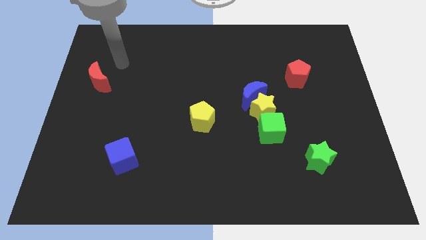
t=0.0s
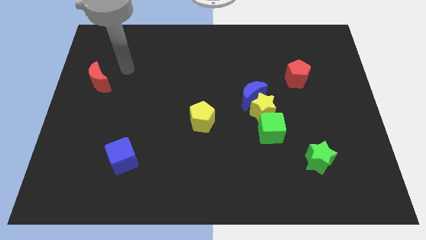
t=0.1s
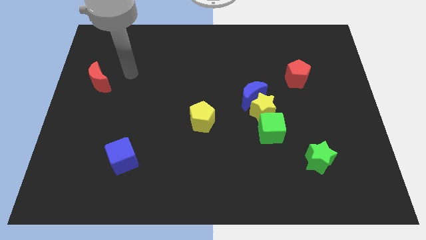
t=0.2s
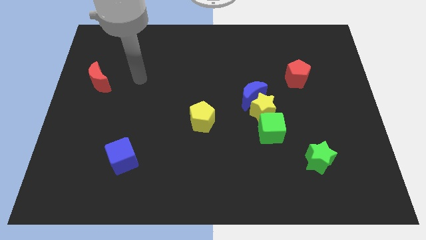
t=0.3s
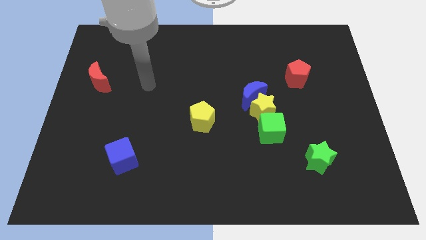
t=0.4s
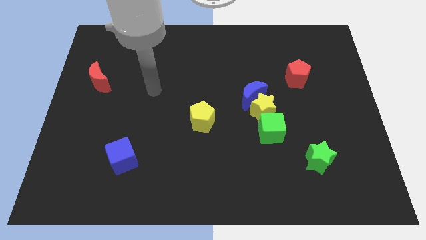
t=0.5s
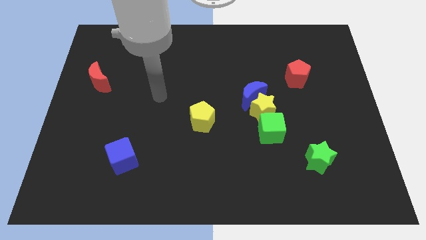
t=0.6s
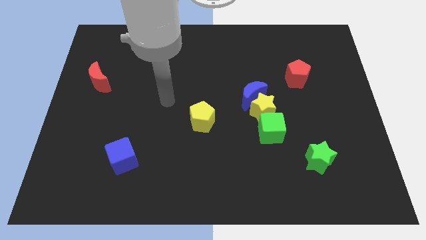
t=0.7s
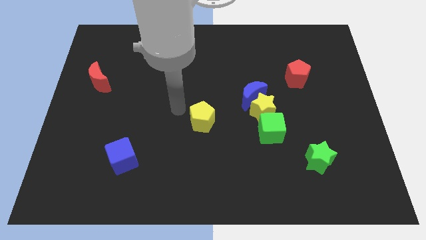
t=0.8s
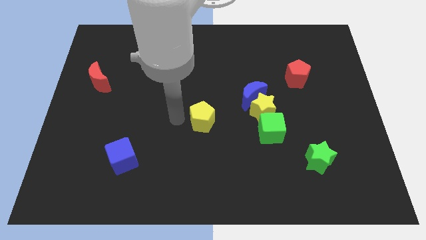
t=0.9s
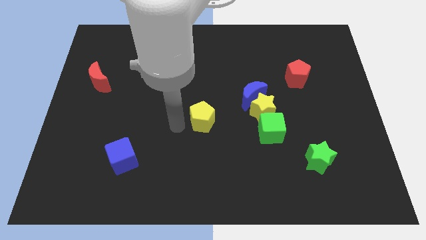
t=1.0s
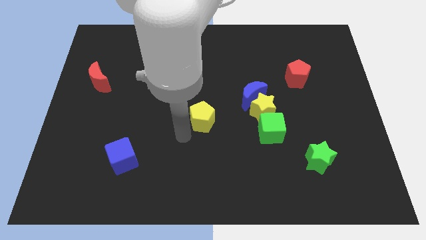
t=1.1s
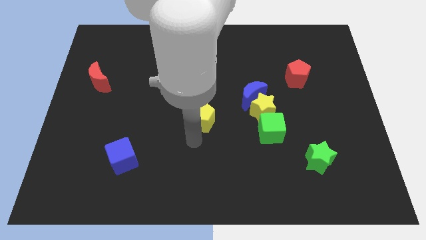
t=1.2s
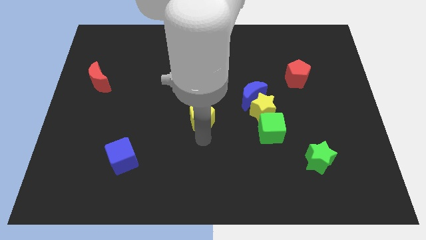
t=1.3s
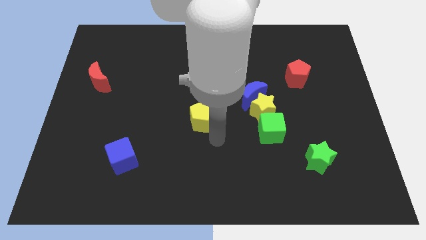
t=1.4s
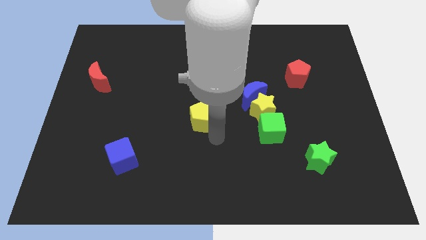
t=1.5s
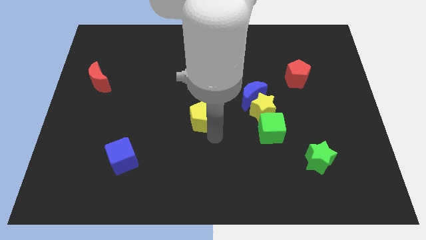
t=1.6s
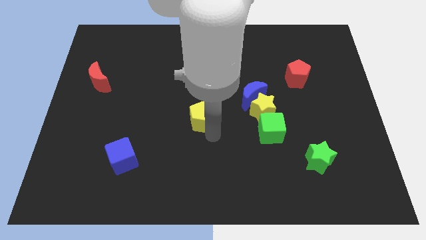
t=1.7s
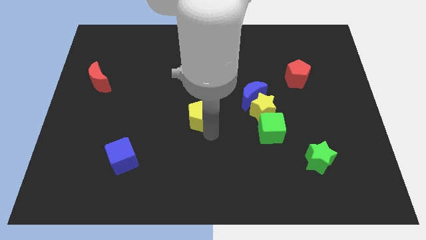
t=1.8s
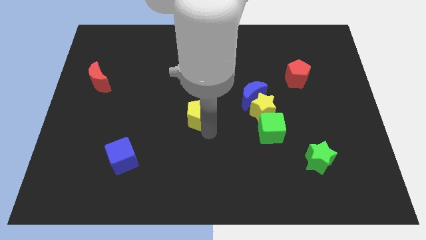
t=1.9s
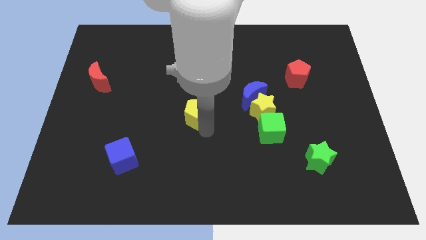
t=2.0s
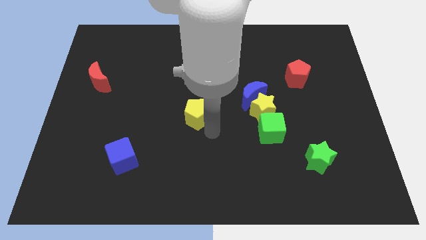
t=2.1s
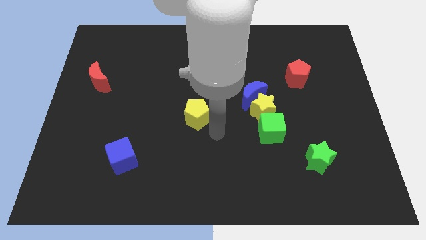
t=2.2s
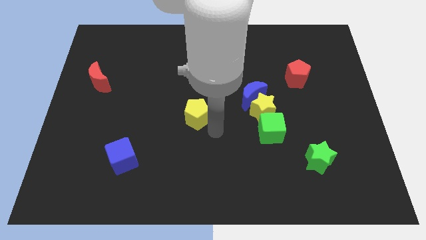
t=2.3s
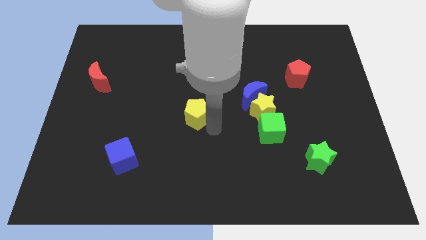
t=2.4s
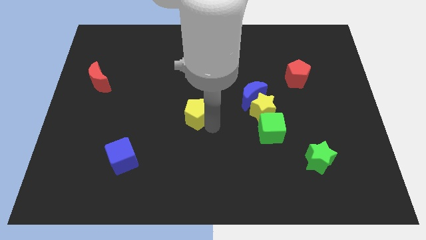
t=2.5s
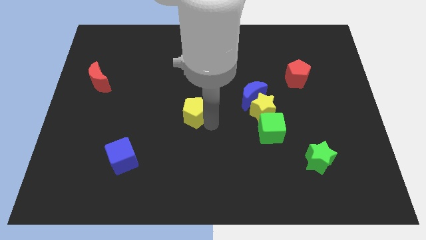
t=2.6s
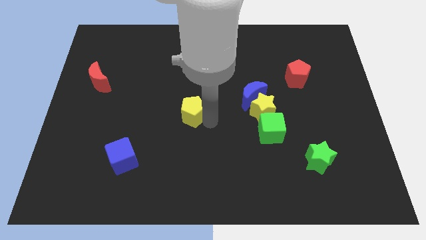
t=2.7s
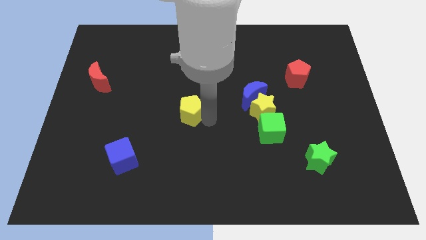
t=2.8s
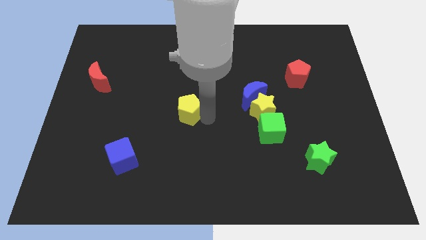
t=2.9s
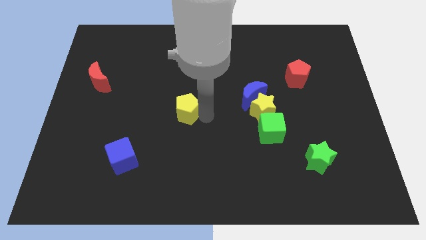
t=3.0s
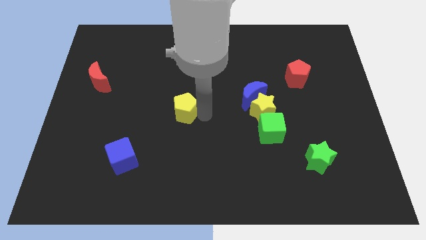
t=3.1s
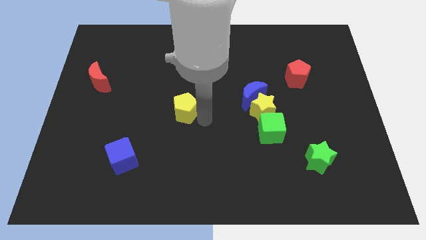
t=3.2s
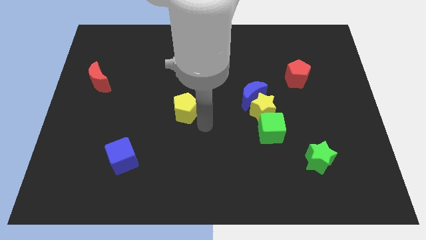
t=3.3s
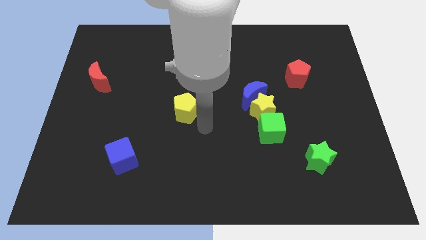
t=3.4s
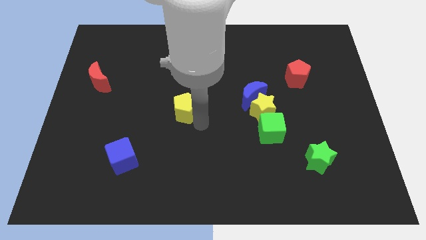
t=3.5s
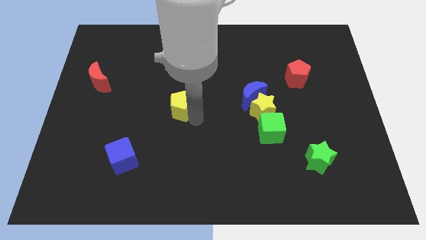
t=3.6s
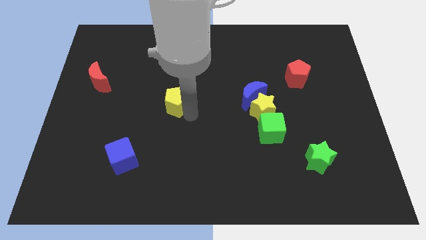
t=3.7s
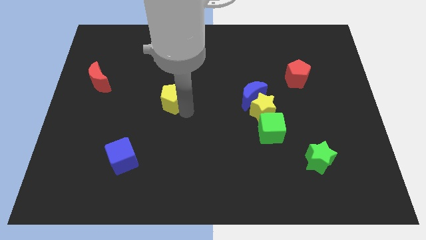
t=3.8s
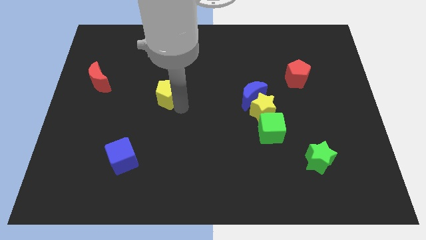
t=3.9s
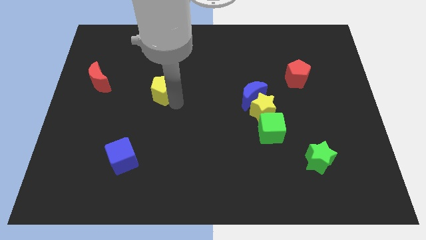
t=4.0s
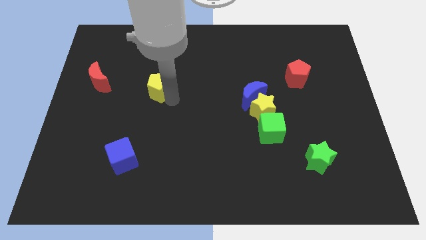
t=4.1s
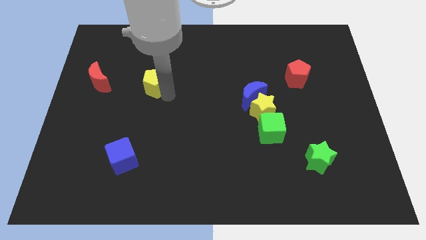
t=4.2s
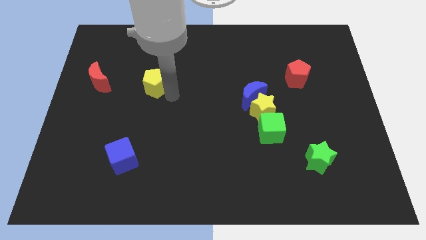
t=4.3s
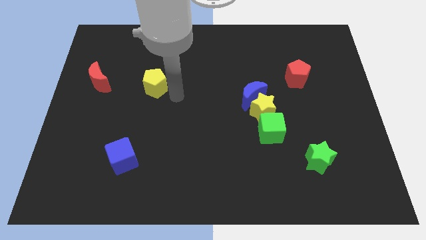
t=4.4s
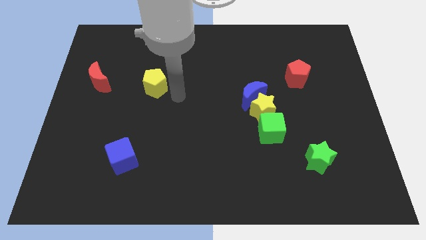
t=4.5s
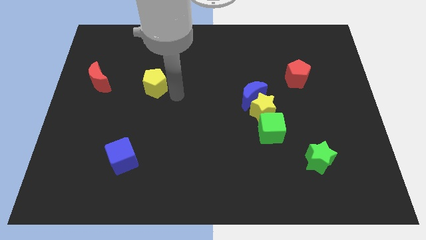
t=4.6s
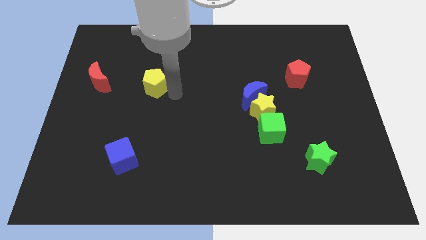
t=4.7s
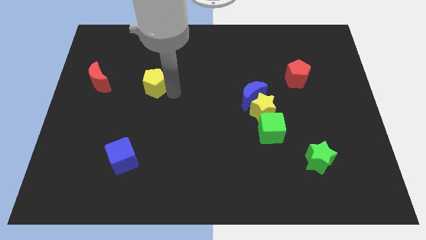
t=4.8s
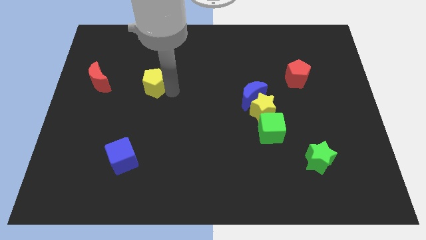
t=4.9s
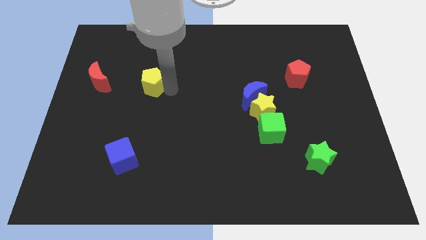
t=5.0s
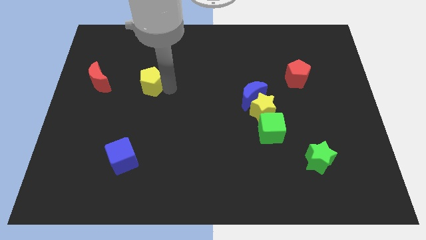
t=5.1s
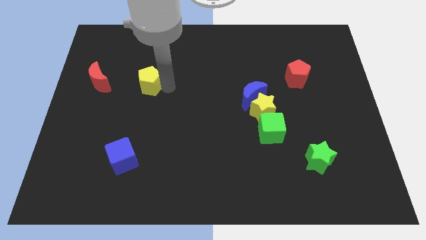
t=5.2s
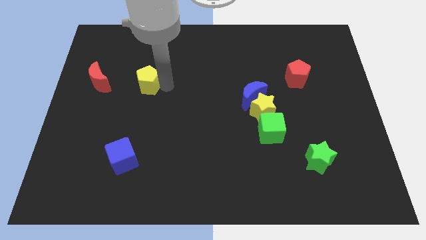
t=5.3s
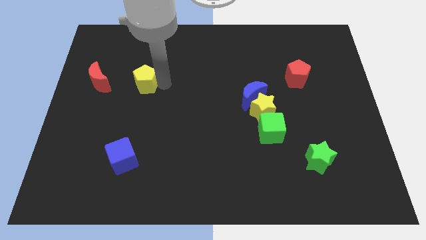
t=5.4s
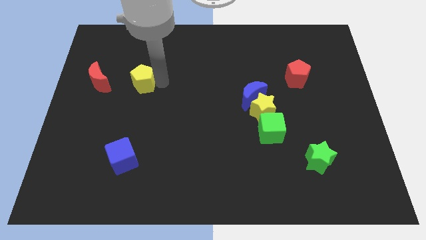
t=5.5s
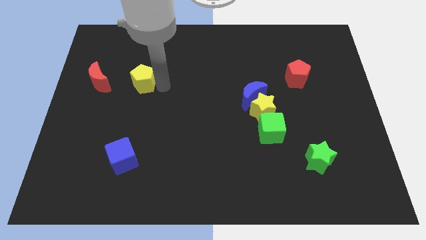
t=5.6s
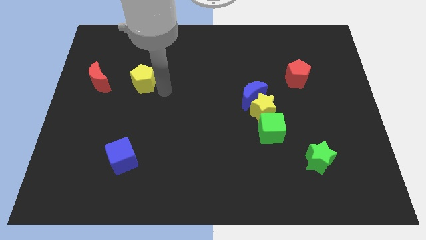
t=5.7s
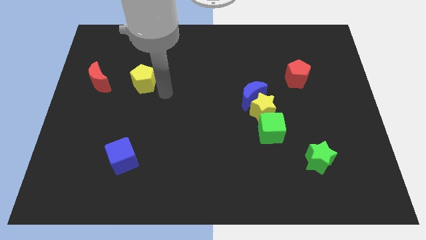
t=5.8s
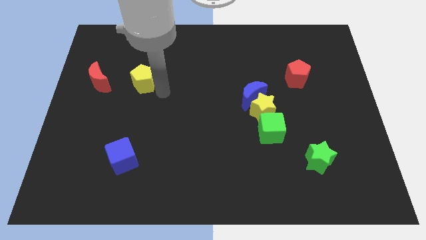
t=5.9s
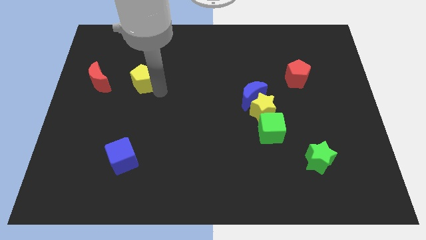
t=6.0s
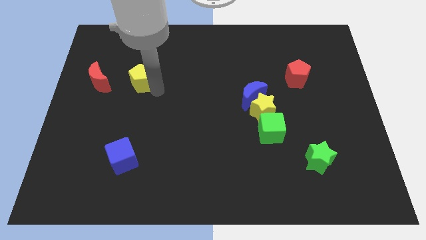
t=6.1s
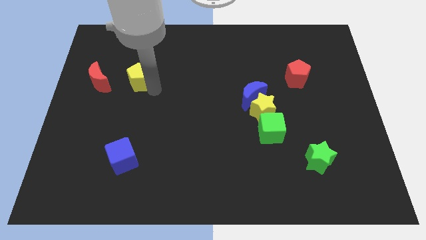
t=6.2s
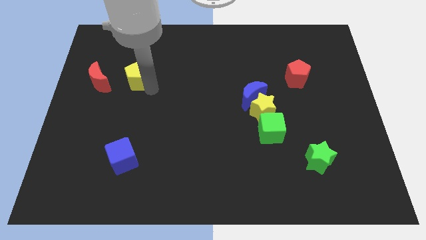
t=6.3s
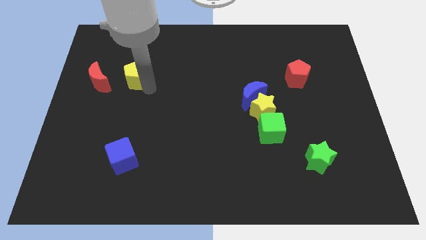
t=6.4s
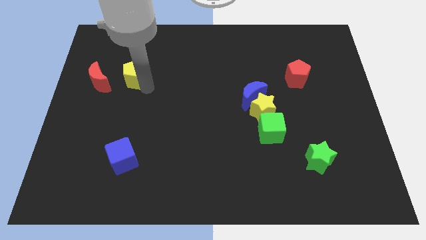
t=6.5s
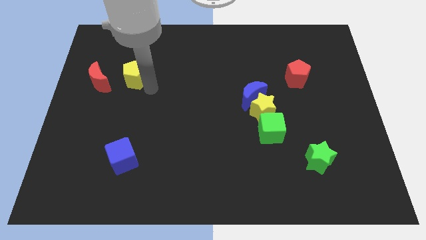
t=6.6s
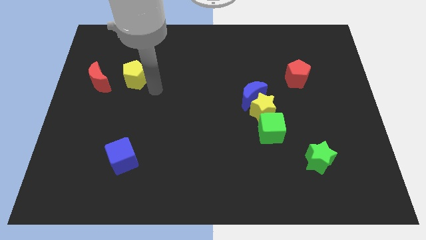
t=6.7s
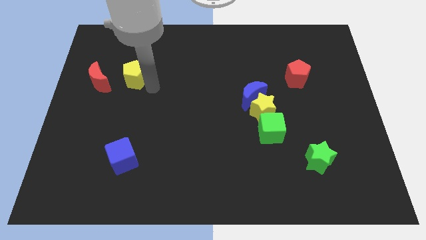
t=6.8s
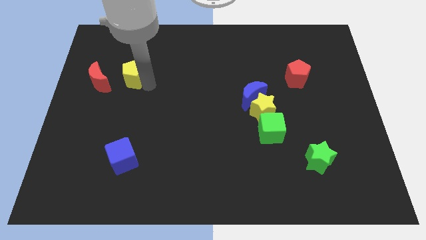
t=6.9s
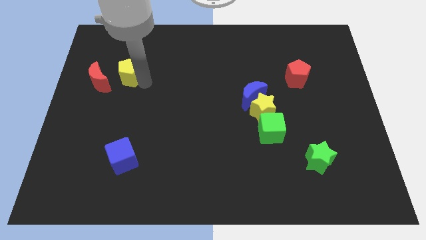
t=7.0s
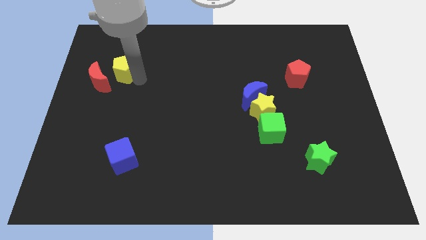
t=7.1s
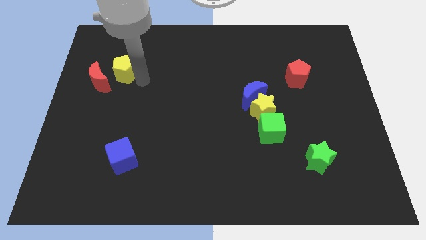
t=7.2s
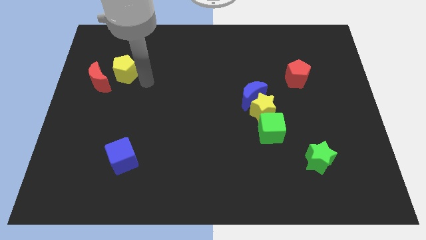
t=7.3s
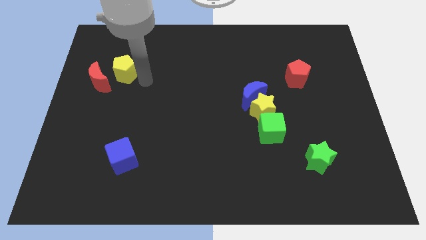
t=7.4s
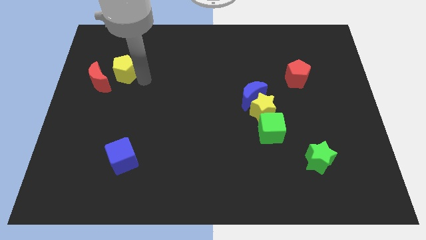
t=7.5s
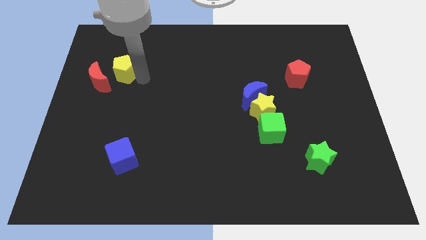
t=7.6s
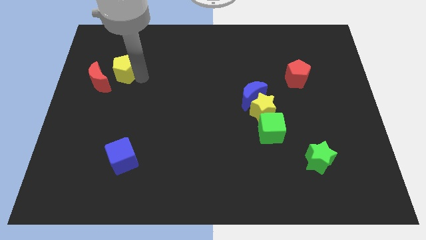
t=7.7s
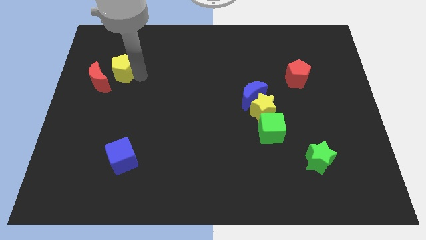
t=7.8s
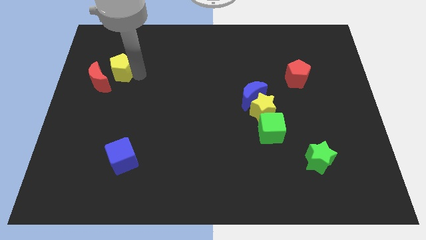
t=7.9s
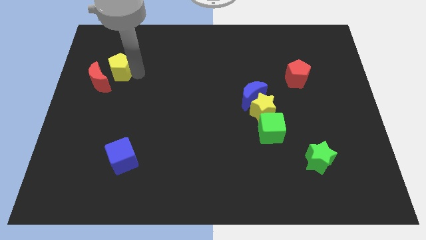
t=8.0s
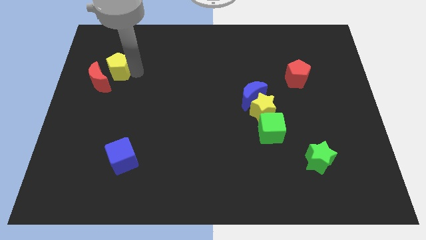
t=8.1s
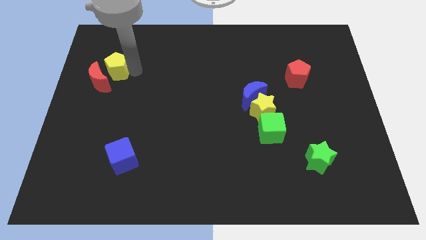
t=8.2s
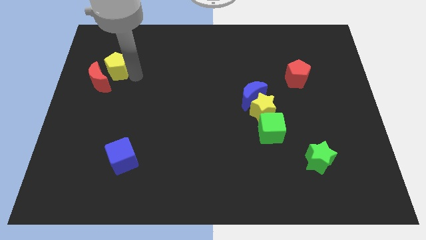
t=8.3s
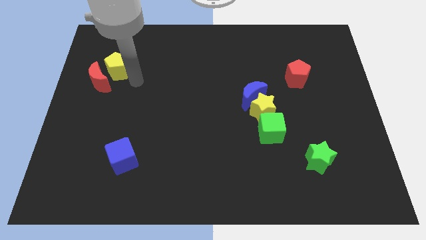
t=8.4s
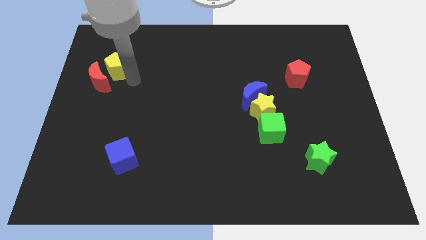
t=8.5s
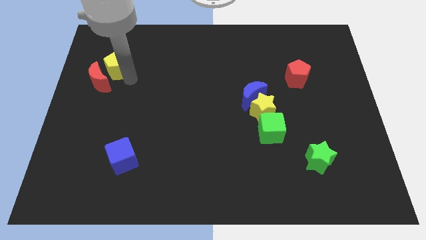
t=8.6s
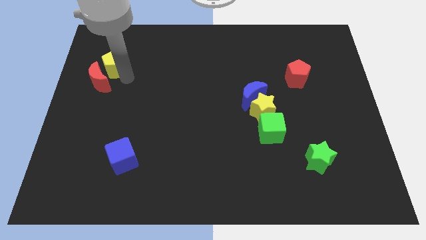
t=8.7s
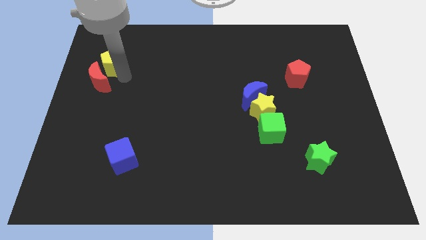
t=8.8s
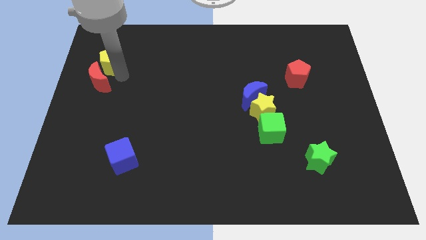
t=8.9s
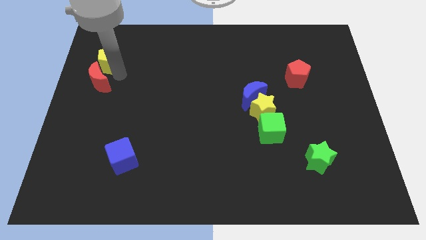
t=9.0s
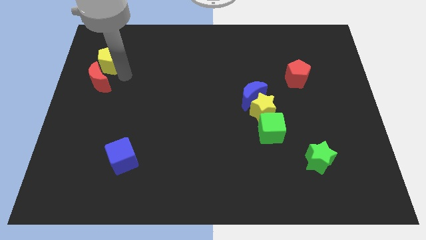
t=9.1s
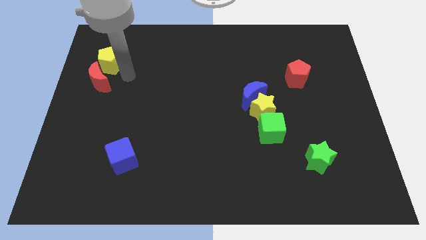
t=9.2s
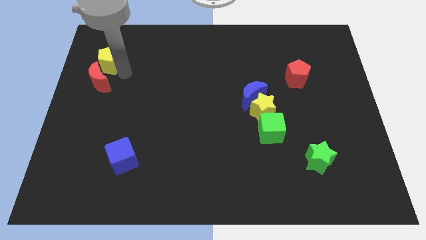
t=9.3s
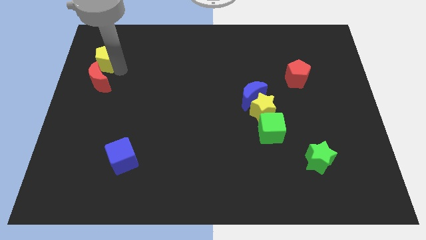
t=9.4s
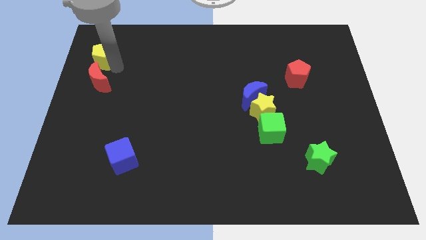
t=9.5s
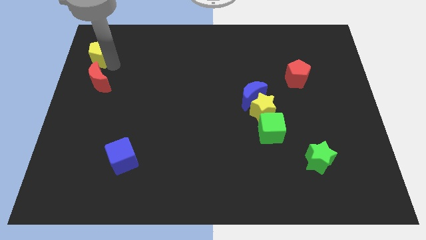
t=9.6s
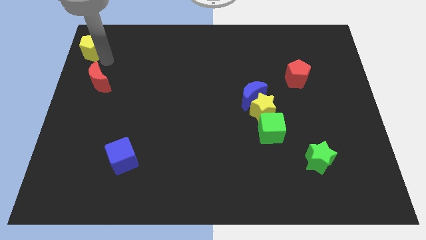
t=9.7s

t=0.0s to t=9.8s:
slide the yellow pentagon to the top left corner
